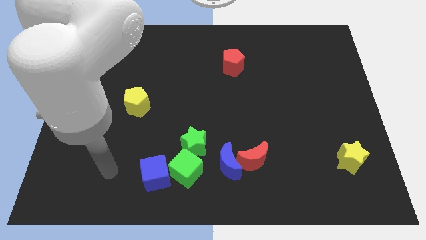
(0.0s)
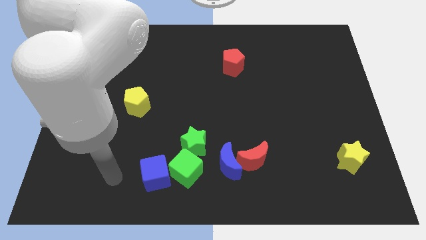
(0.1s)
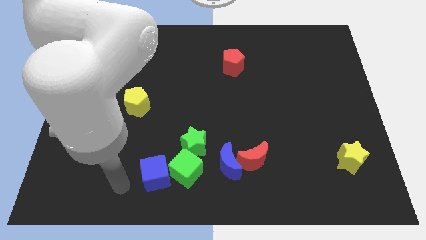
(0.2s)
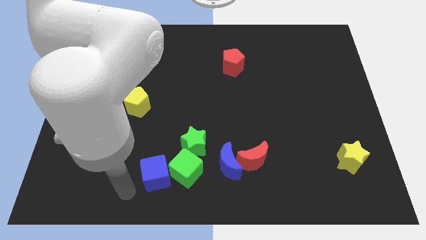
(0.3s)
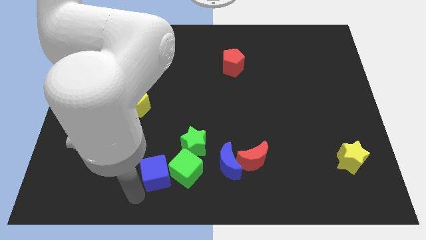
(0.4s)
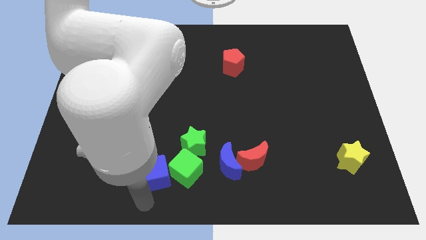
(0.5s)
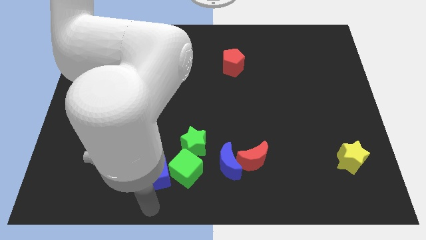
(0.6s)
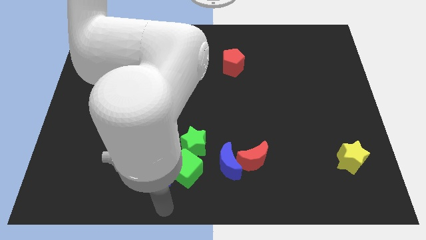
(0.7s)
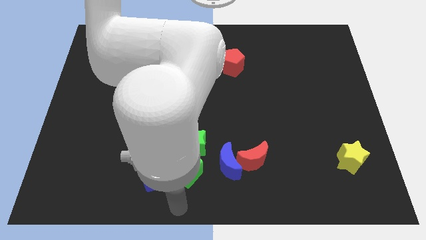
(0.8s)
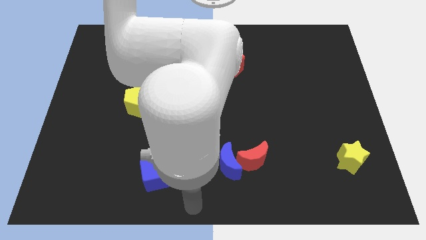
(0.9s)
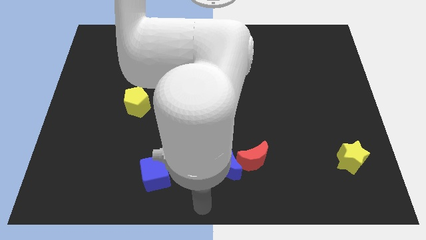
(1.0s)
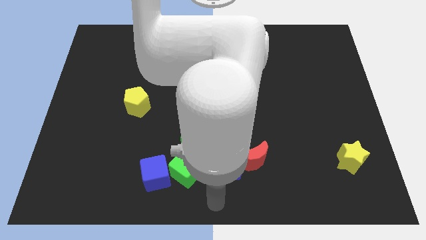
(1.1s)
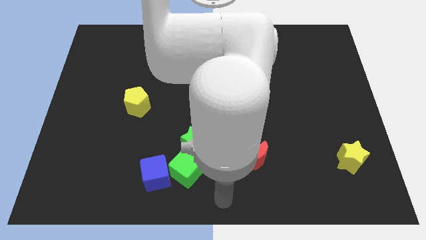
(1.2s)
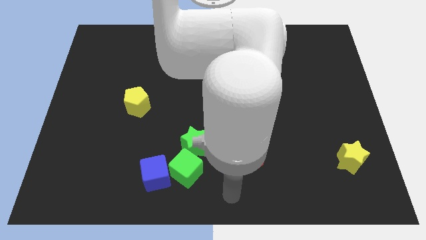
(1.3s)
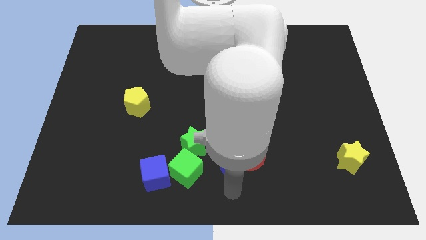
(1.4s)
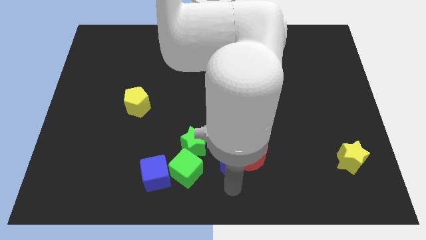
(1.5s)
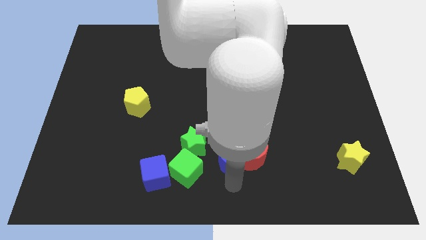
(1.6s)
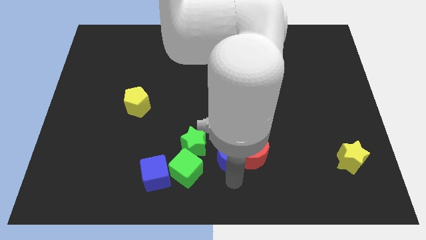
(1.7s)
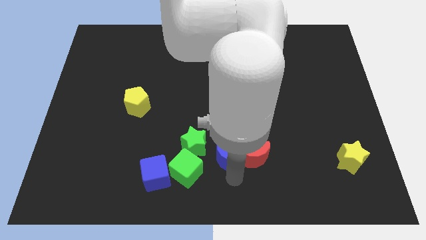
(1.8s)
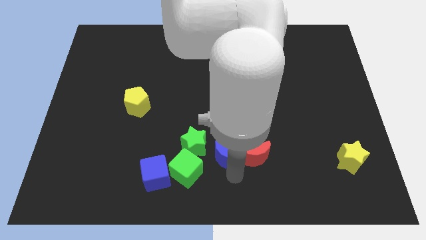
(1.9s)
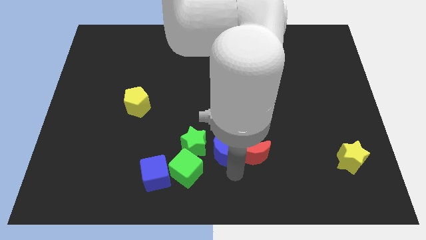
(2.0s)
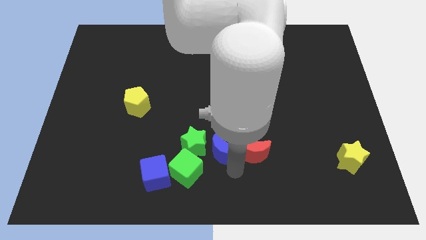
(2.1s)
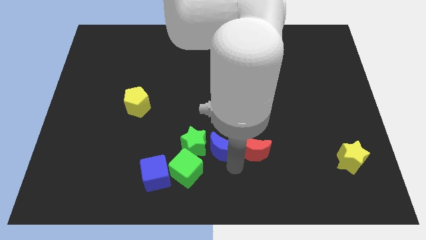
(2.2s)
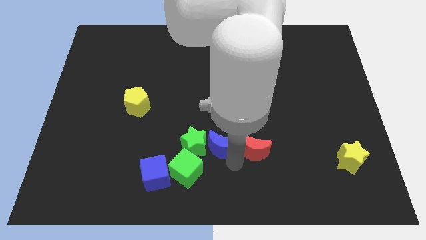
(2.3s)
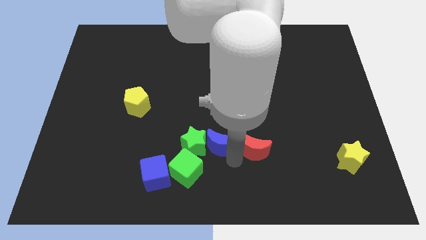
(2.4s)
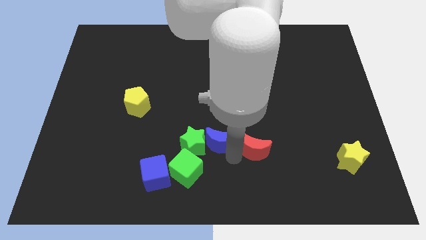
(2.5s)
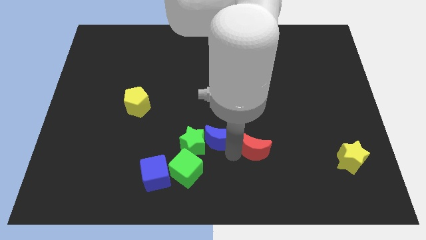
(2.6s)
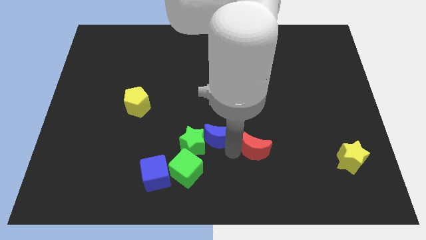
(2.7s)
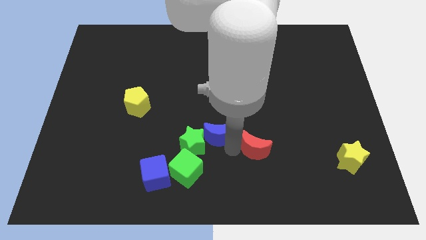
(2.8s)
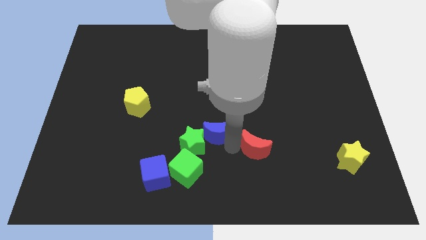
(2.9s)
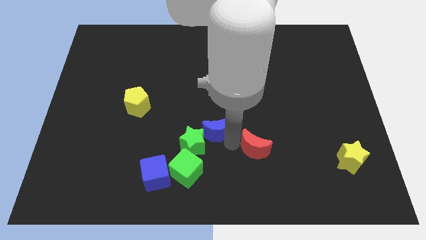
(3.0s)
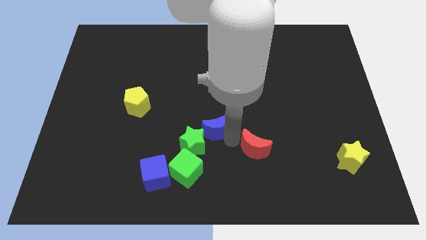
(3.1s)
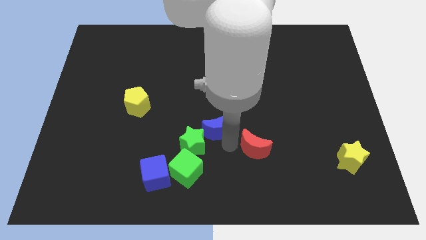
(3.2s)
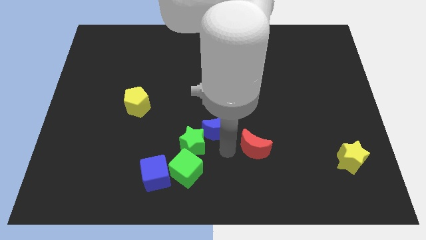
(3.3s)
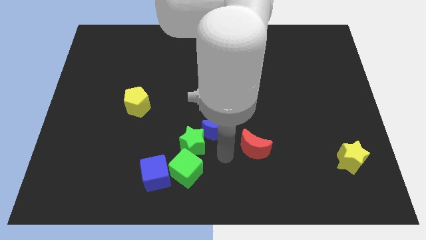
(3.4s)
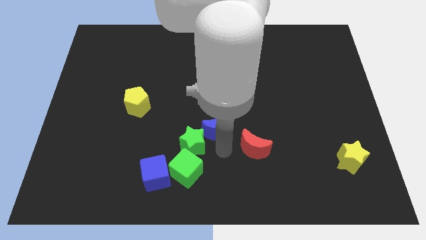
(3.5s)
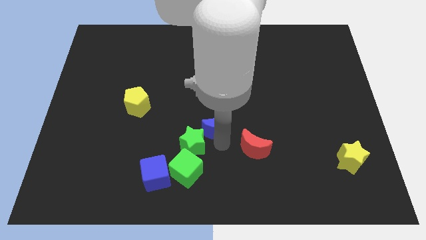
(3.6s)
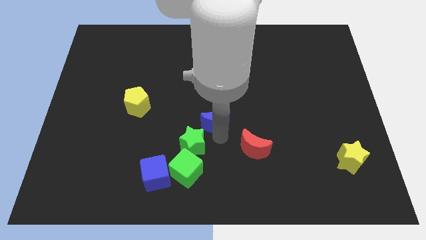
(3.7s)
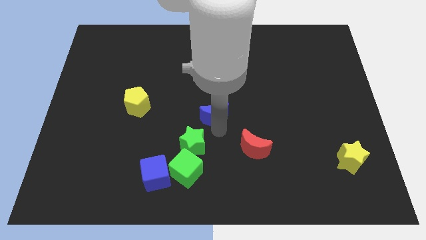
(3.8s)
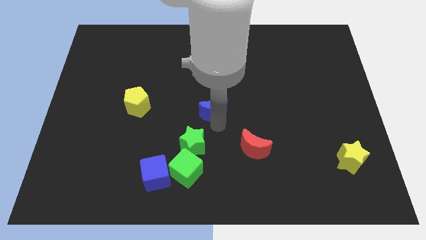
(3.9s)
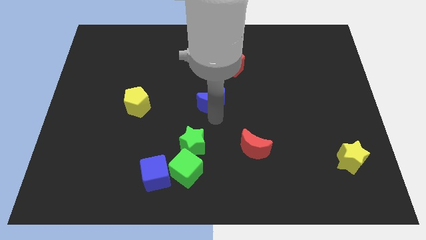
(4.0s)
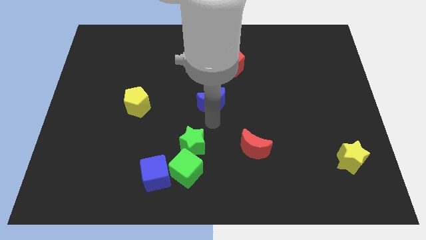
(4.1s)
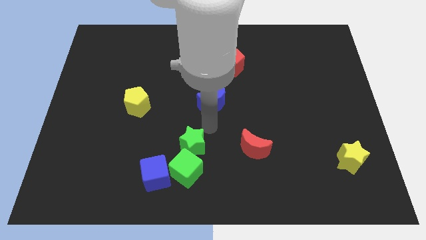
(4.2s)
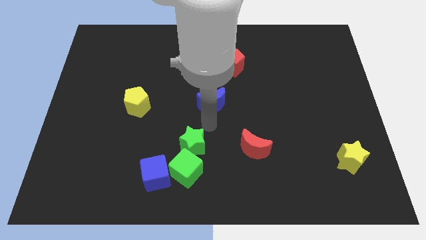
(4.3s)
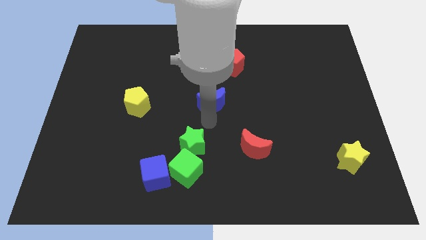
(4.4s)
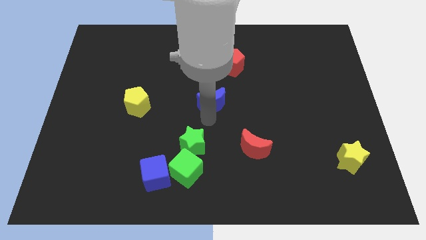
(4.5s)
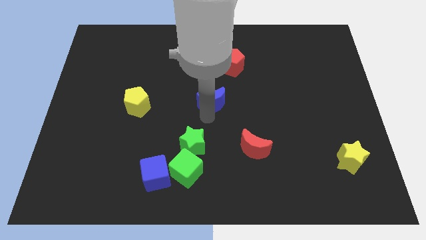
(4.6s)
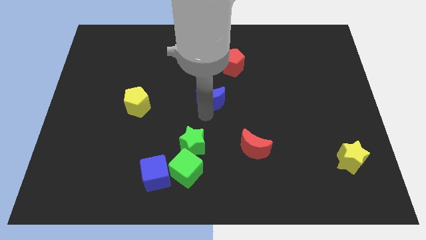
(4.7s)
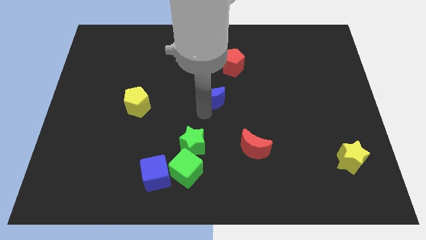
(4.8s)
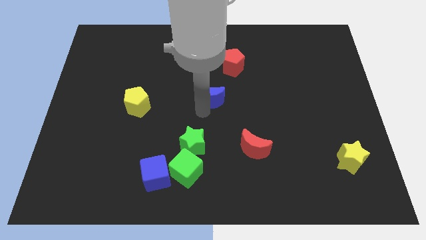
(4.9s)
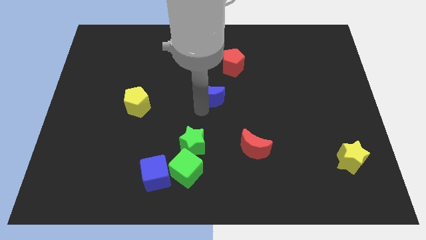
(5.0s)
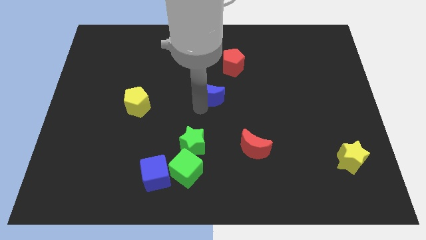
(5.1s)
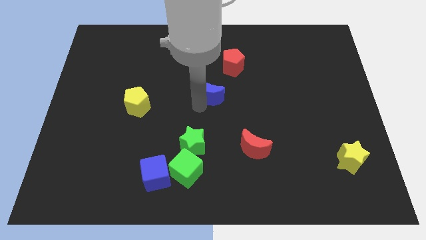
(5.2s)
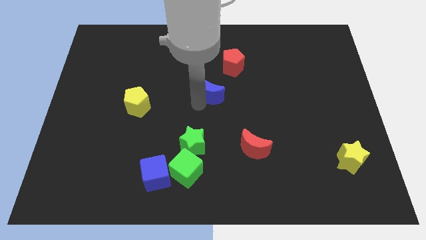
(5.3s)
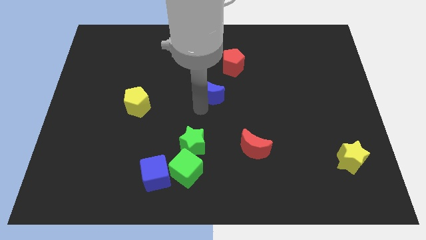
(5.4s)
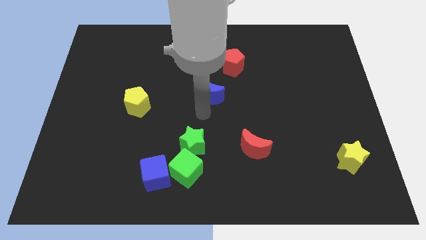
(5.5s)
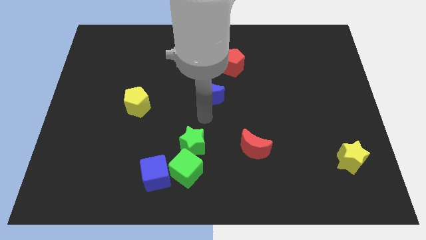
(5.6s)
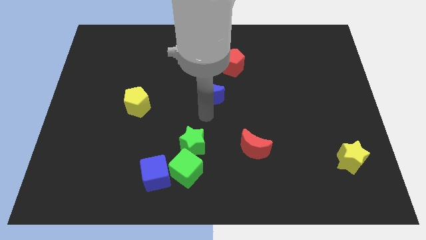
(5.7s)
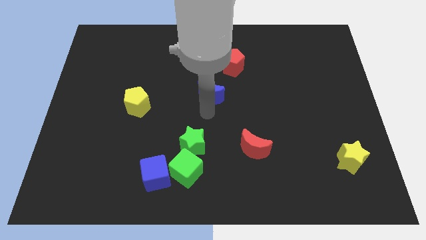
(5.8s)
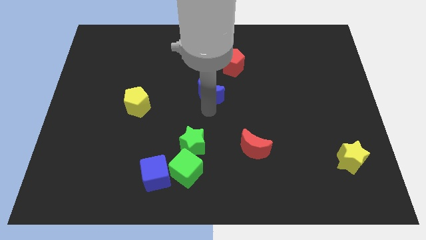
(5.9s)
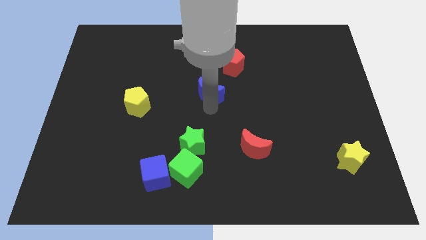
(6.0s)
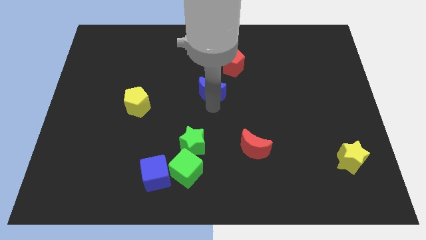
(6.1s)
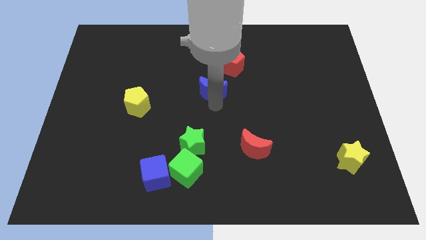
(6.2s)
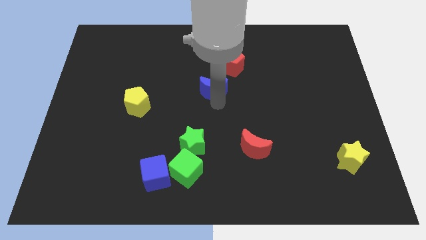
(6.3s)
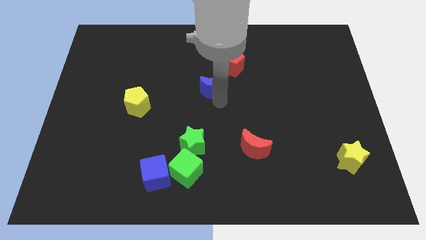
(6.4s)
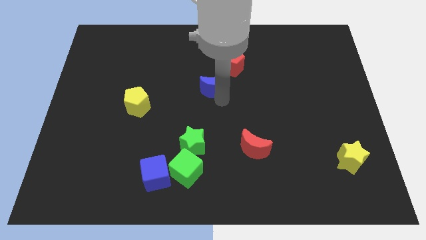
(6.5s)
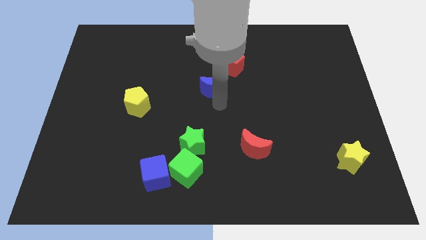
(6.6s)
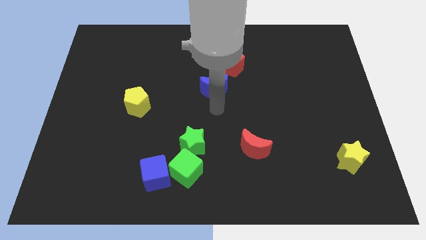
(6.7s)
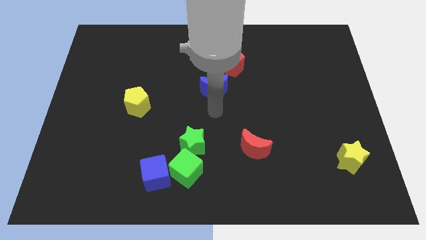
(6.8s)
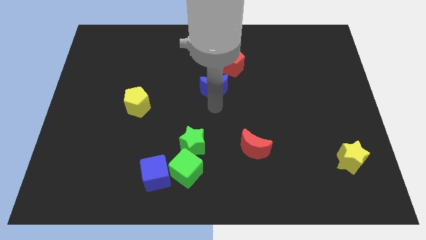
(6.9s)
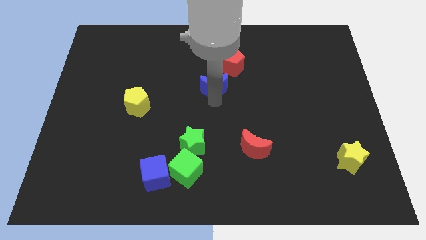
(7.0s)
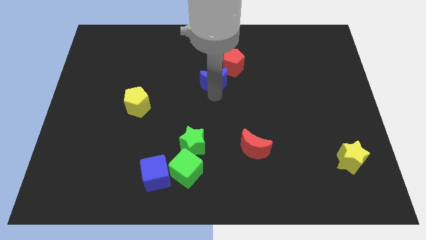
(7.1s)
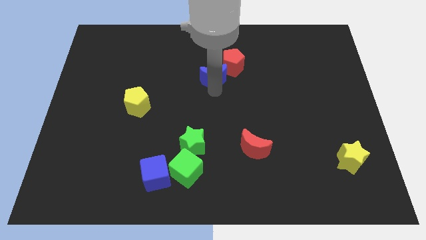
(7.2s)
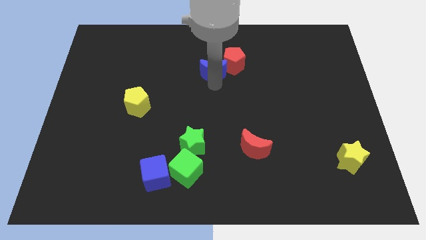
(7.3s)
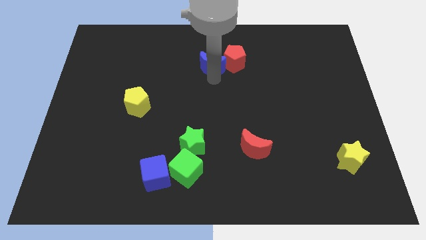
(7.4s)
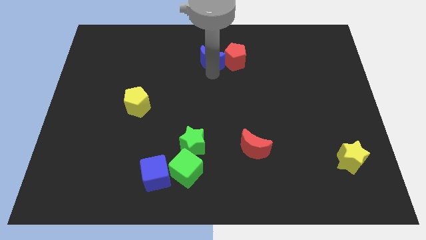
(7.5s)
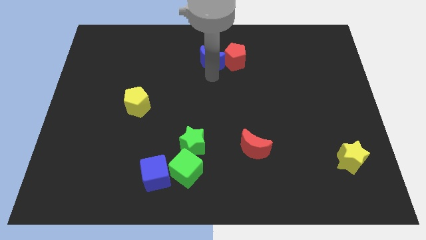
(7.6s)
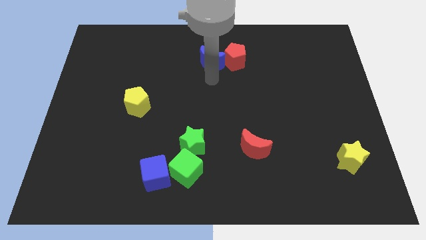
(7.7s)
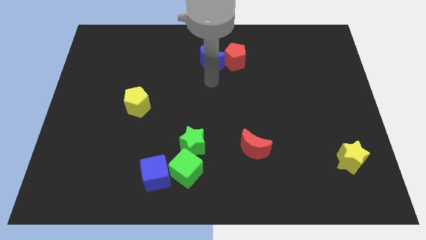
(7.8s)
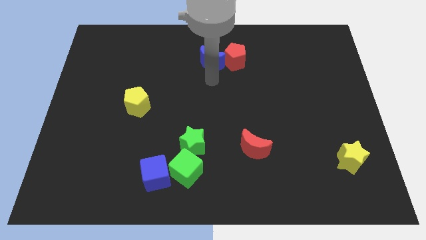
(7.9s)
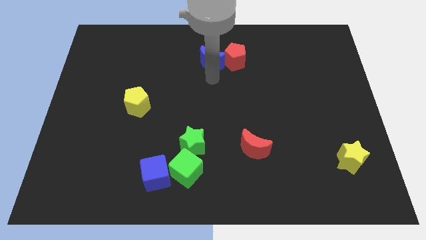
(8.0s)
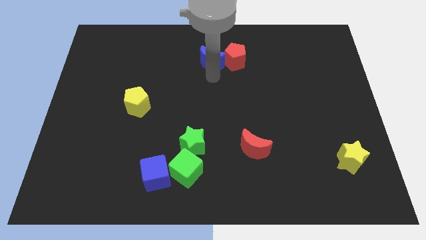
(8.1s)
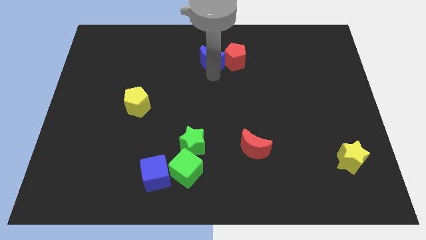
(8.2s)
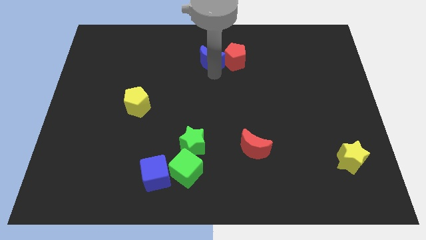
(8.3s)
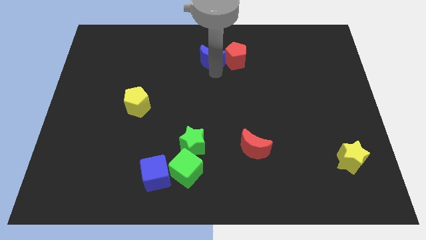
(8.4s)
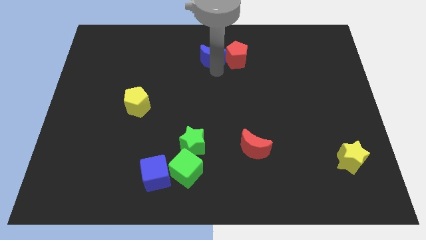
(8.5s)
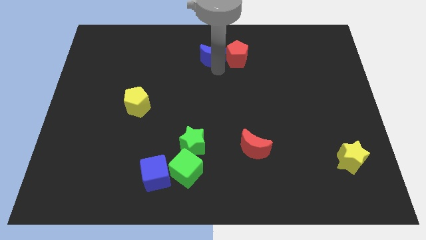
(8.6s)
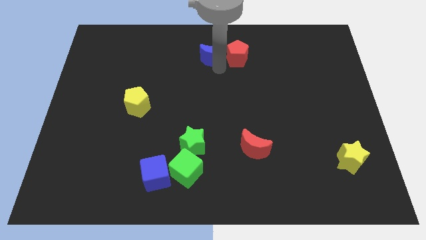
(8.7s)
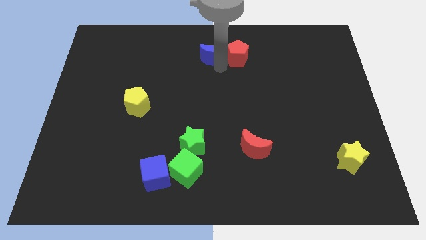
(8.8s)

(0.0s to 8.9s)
slide the blue moon to the top side
